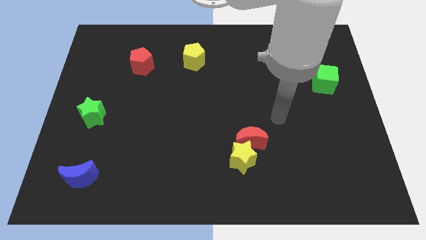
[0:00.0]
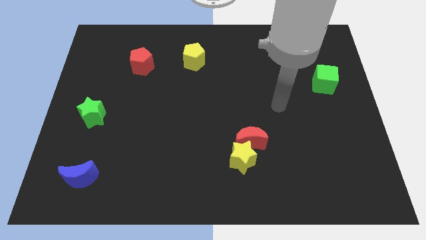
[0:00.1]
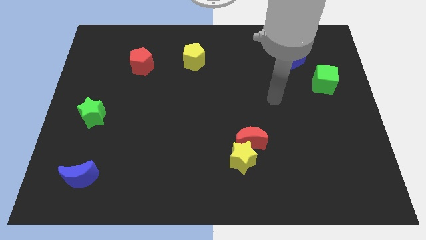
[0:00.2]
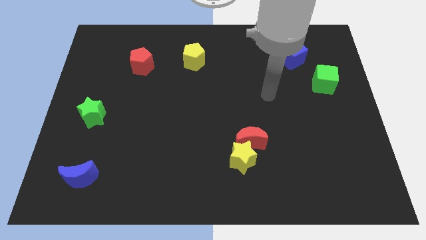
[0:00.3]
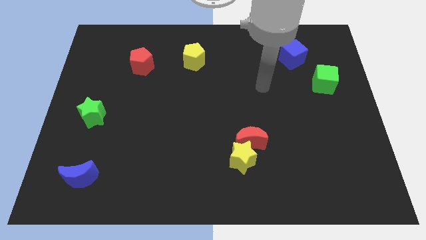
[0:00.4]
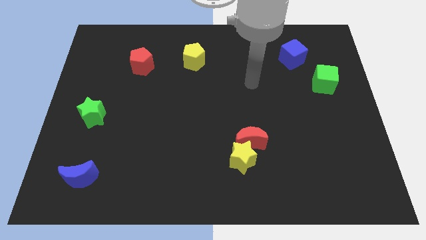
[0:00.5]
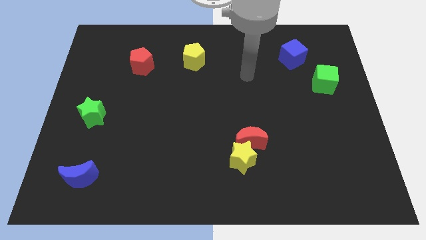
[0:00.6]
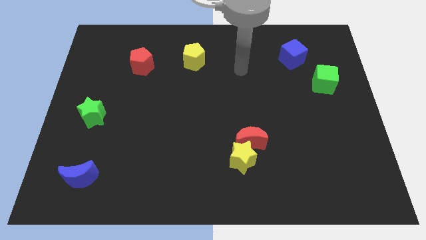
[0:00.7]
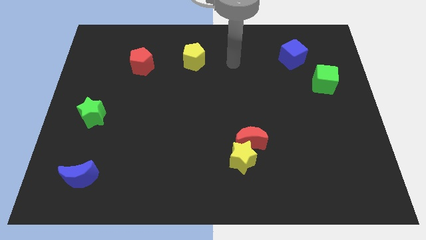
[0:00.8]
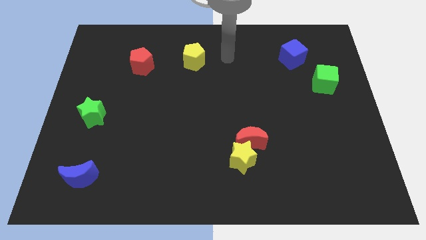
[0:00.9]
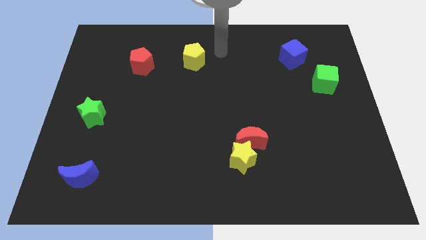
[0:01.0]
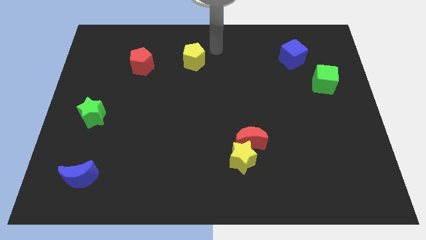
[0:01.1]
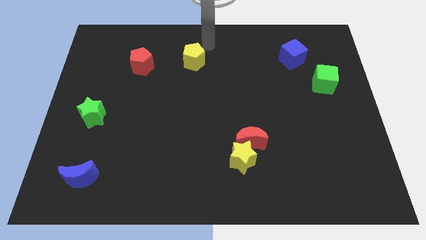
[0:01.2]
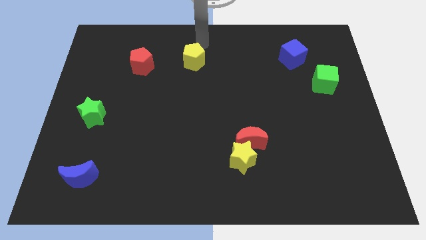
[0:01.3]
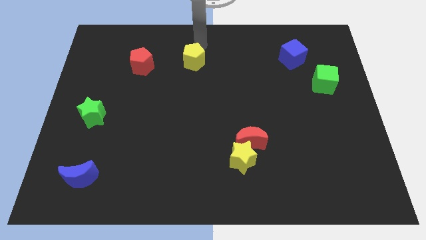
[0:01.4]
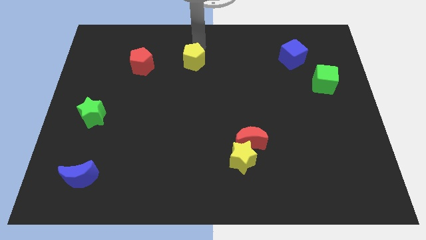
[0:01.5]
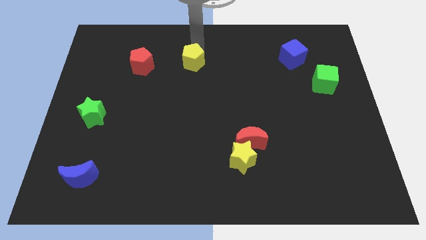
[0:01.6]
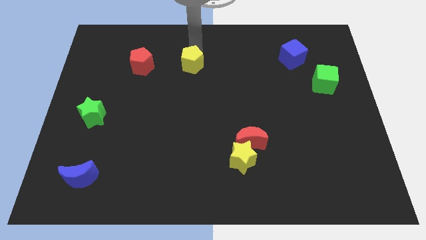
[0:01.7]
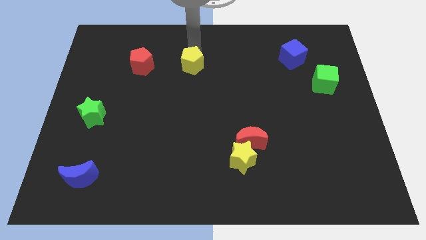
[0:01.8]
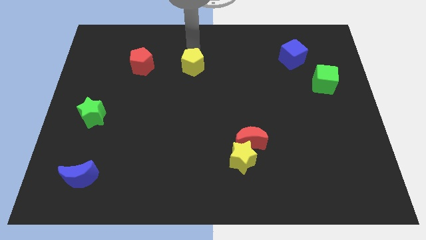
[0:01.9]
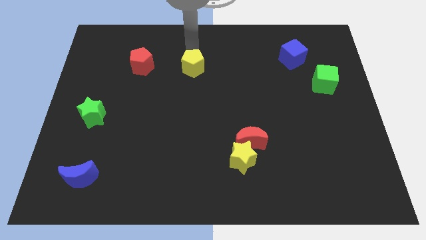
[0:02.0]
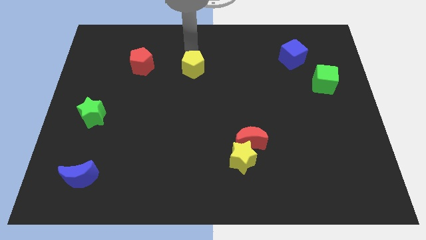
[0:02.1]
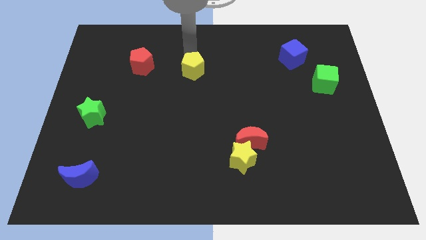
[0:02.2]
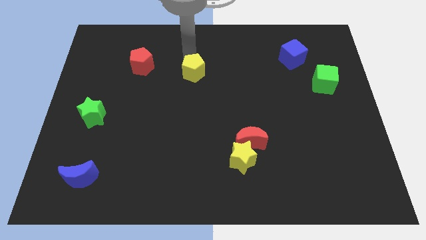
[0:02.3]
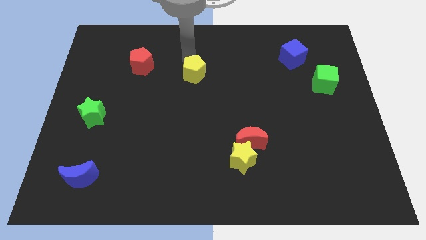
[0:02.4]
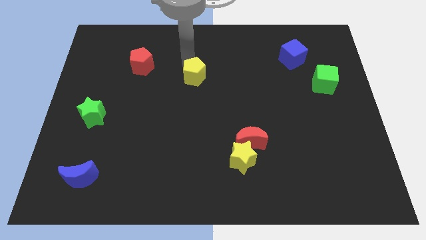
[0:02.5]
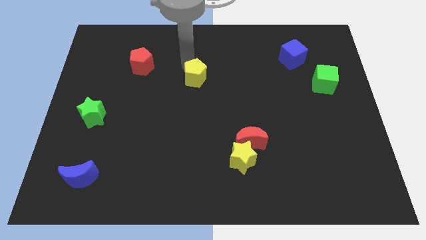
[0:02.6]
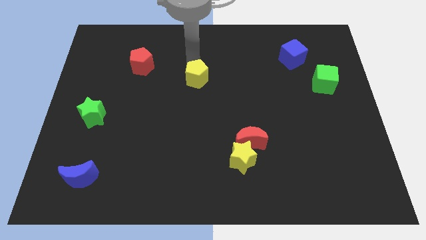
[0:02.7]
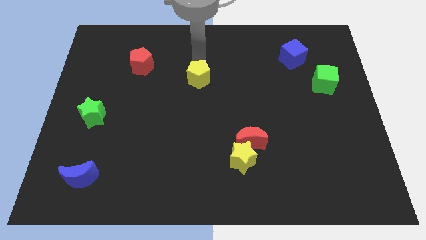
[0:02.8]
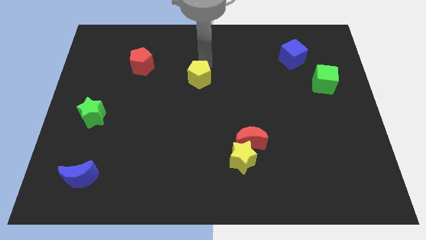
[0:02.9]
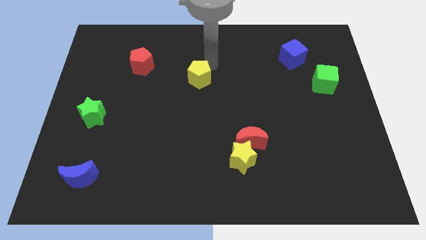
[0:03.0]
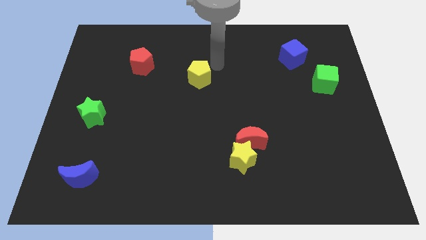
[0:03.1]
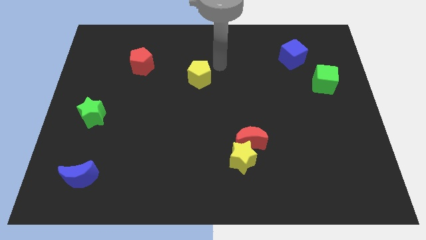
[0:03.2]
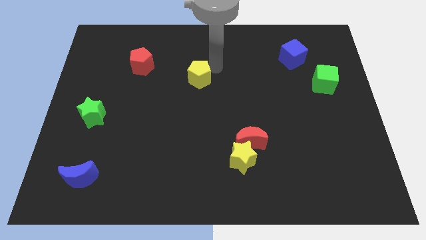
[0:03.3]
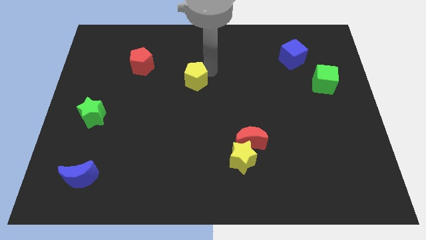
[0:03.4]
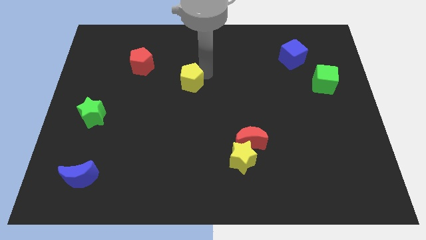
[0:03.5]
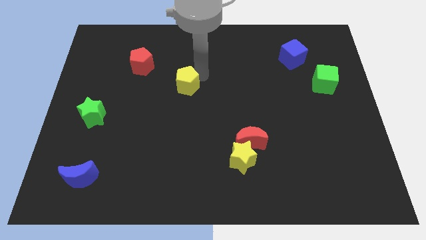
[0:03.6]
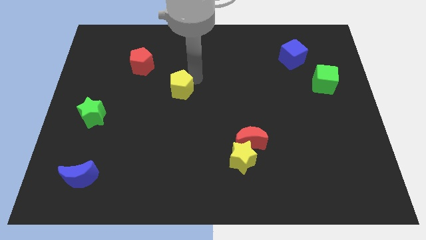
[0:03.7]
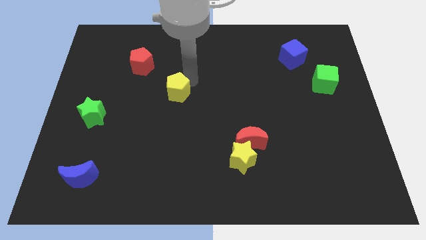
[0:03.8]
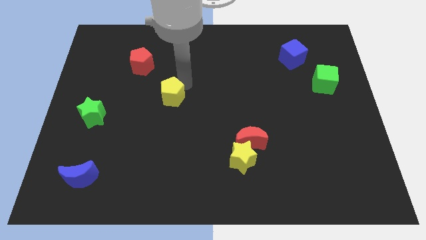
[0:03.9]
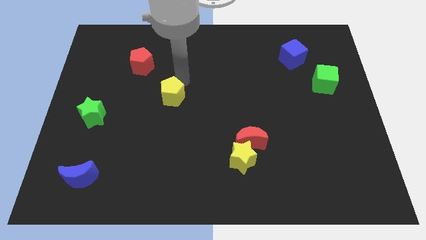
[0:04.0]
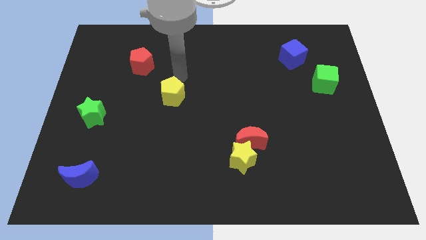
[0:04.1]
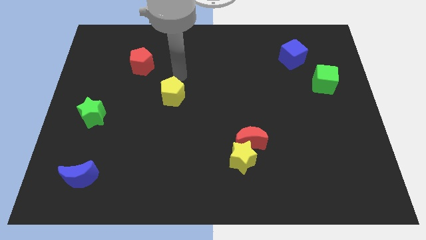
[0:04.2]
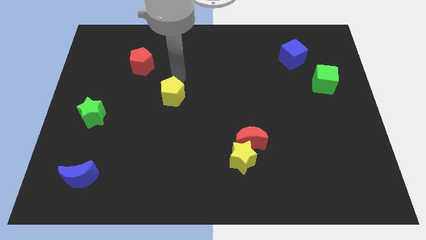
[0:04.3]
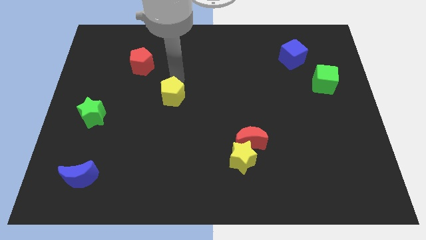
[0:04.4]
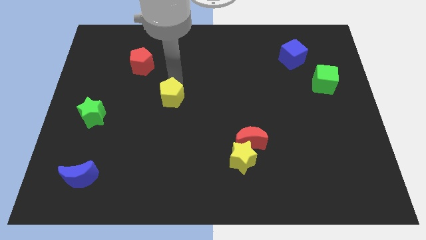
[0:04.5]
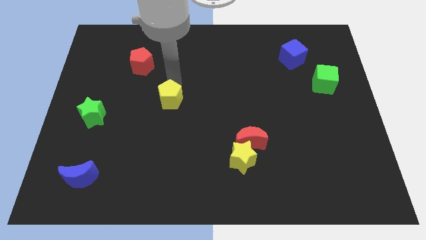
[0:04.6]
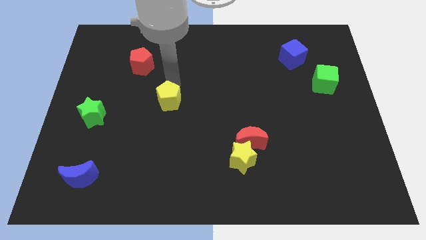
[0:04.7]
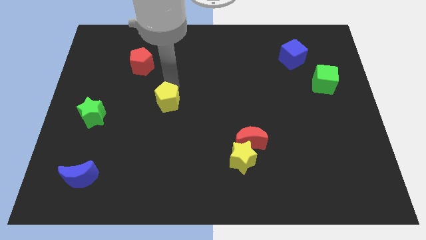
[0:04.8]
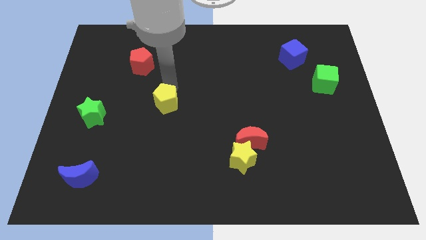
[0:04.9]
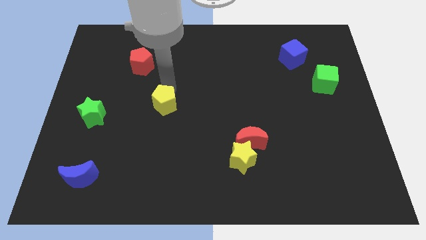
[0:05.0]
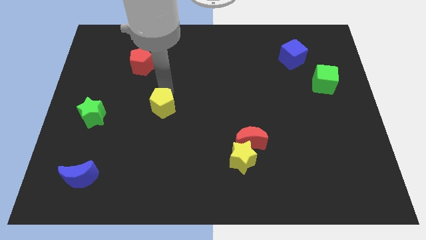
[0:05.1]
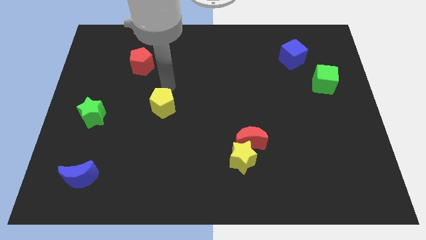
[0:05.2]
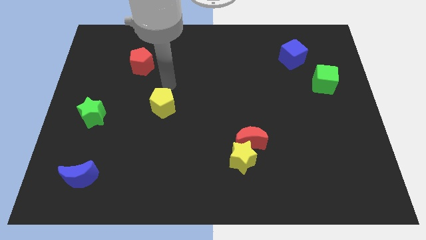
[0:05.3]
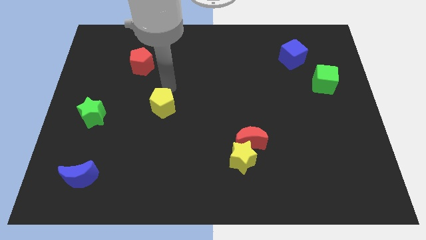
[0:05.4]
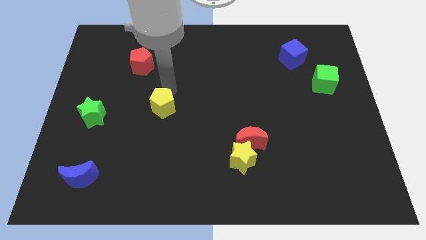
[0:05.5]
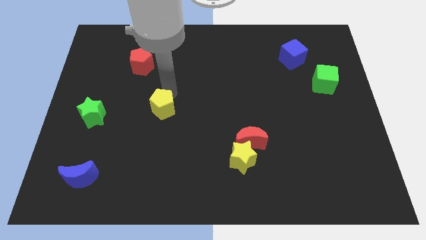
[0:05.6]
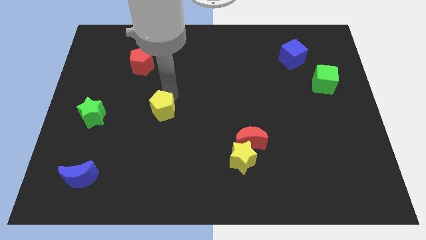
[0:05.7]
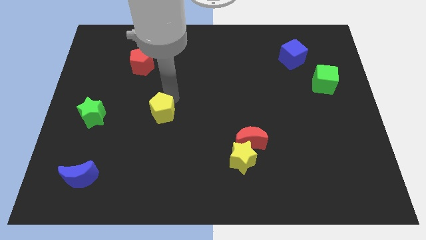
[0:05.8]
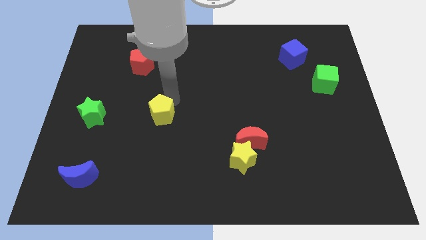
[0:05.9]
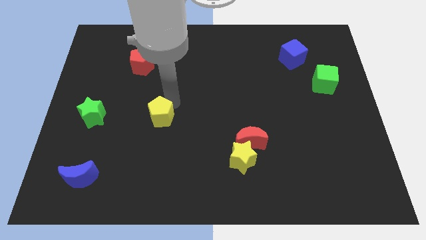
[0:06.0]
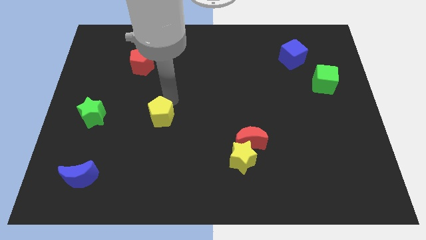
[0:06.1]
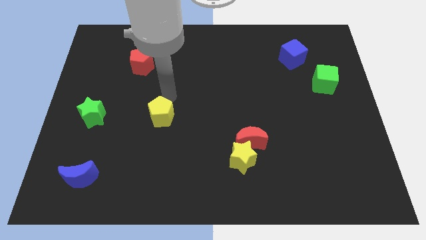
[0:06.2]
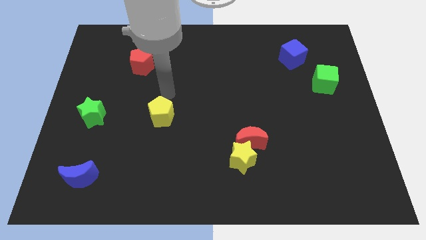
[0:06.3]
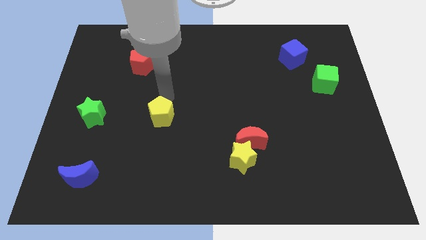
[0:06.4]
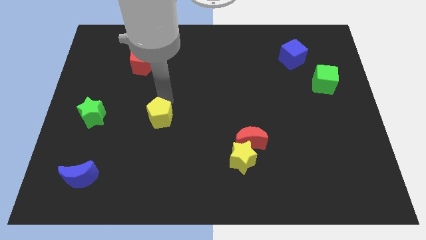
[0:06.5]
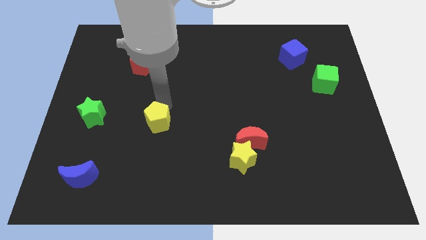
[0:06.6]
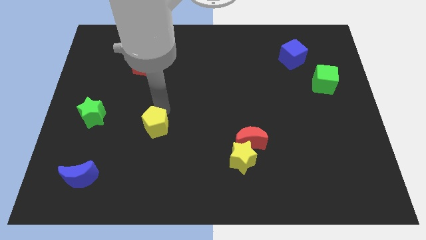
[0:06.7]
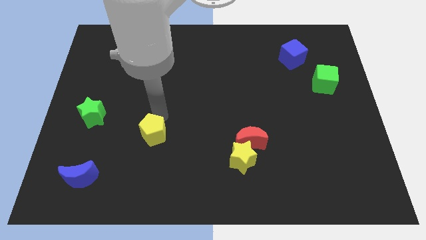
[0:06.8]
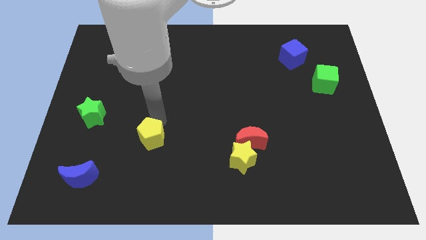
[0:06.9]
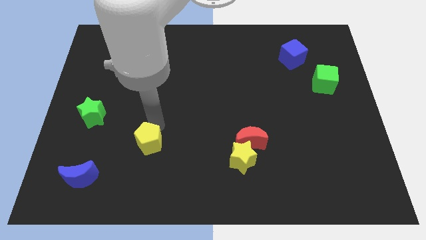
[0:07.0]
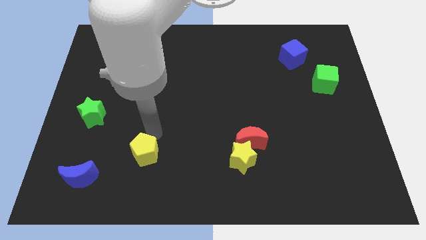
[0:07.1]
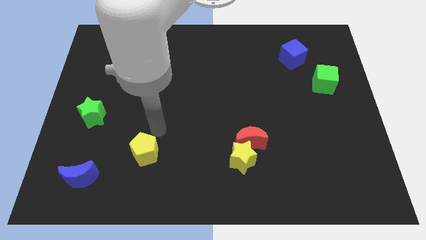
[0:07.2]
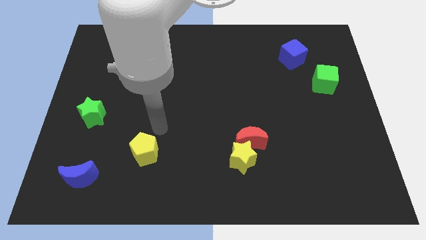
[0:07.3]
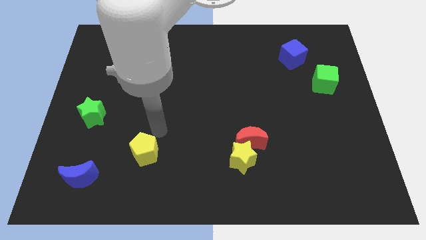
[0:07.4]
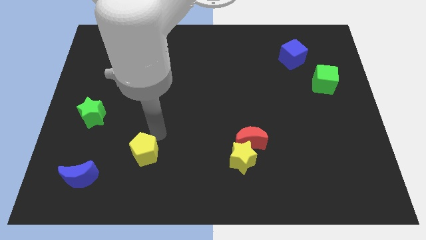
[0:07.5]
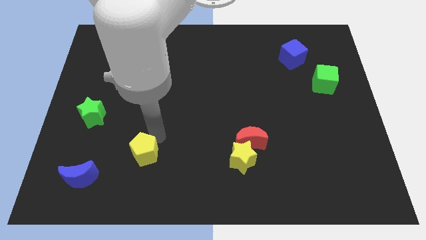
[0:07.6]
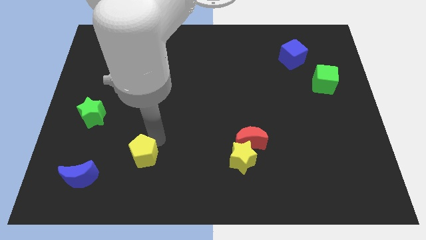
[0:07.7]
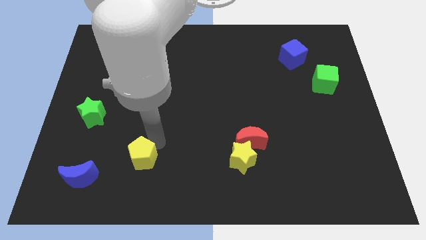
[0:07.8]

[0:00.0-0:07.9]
push the yellow pentagon right of the blue moon
